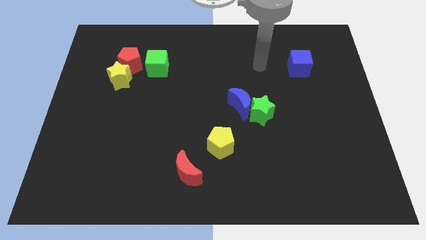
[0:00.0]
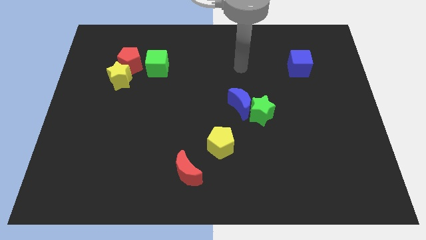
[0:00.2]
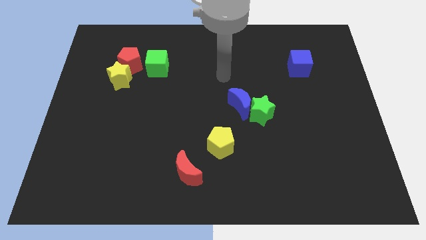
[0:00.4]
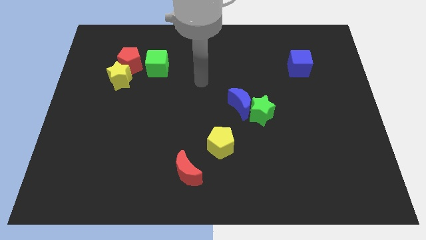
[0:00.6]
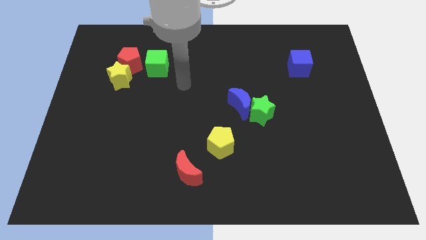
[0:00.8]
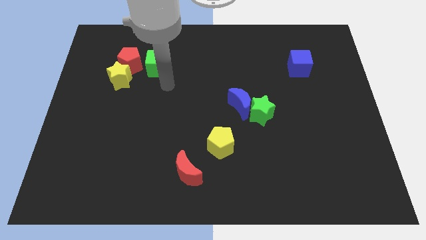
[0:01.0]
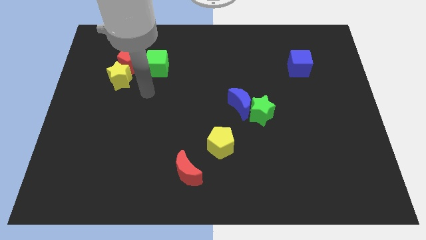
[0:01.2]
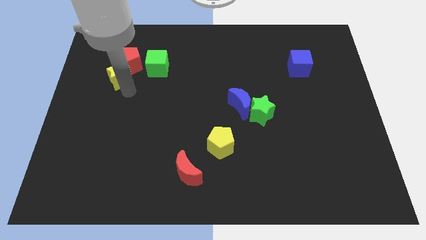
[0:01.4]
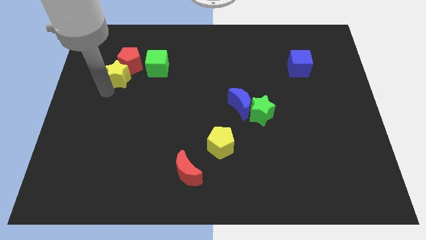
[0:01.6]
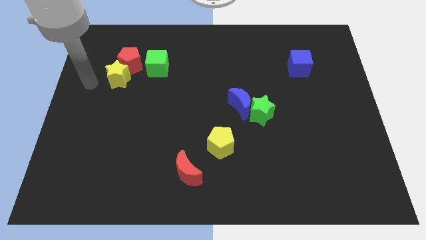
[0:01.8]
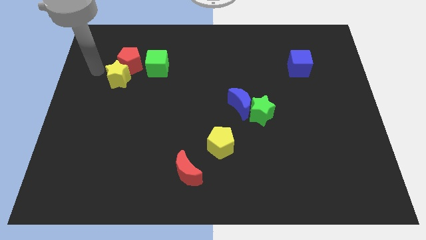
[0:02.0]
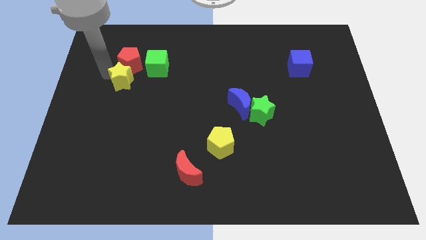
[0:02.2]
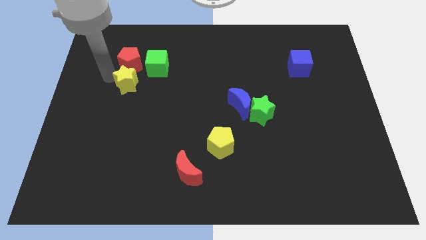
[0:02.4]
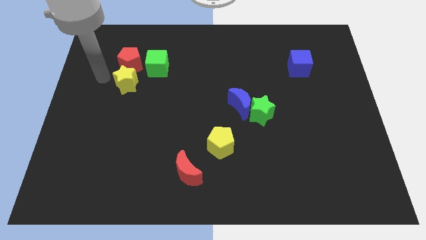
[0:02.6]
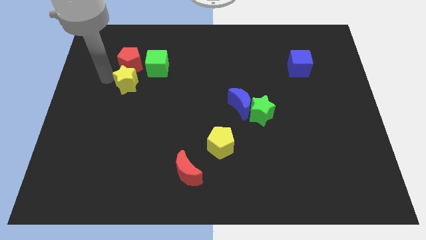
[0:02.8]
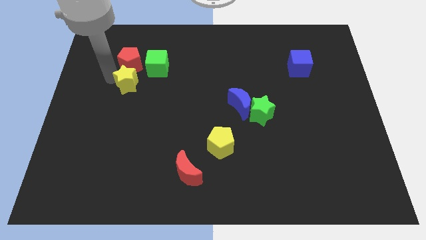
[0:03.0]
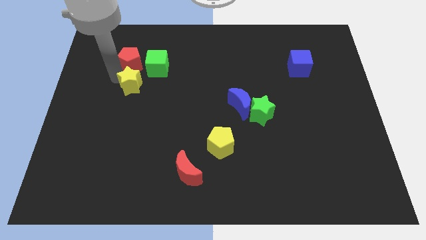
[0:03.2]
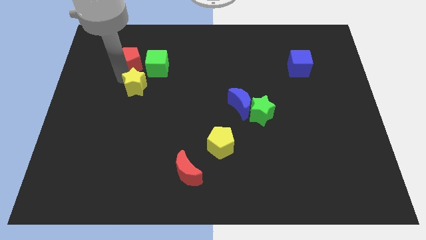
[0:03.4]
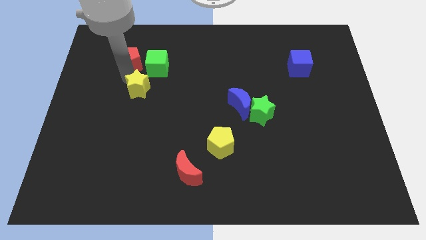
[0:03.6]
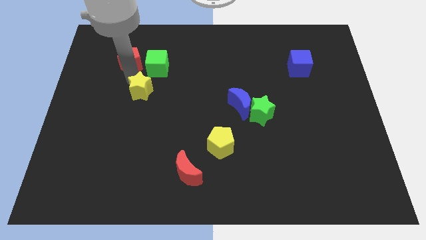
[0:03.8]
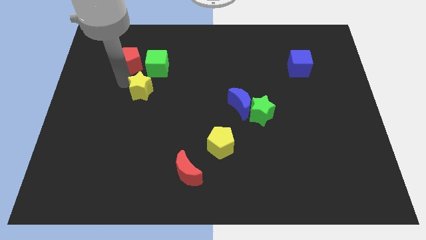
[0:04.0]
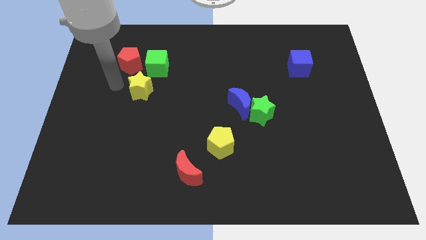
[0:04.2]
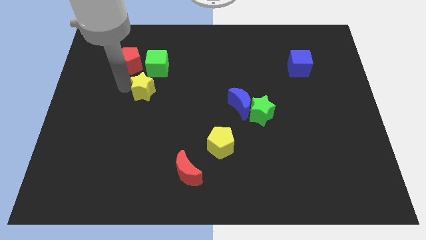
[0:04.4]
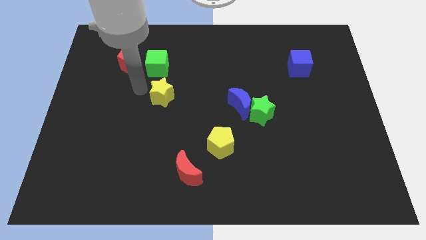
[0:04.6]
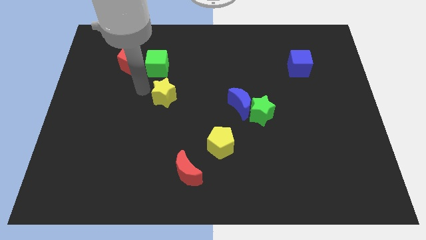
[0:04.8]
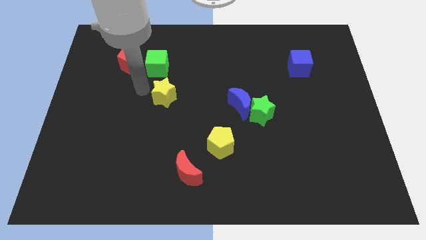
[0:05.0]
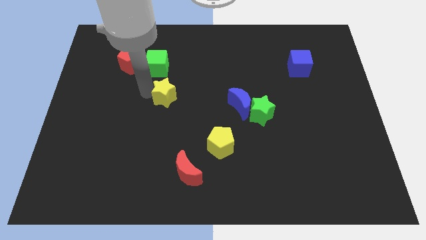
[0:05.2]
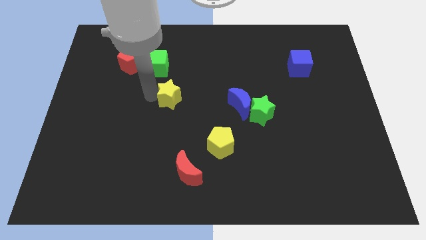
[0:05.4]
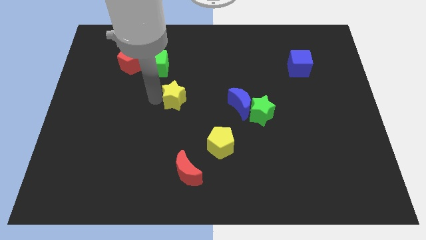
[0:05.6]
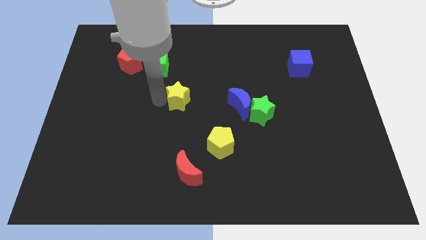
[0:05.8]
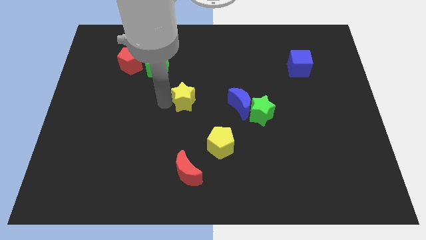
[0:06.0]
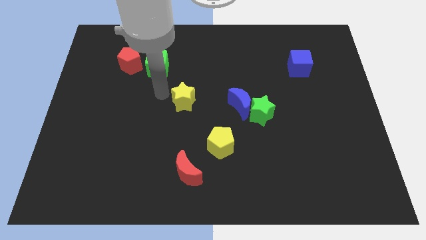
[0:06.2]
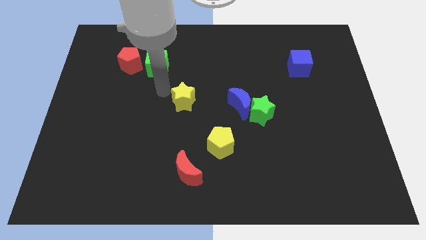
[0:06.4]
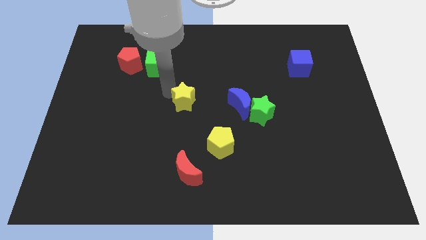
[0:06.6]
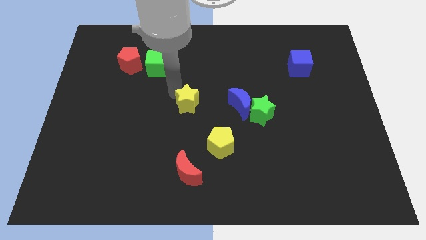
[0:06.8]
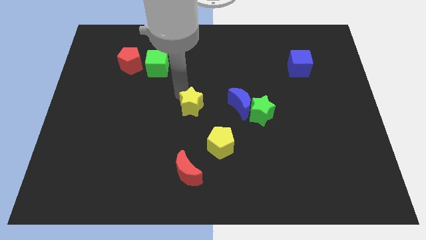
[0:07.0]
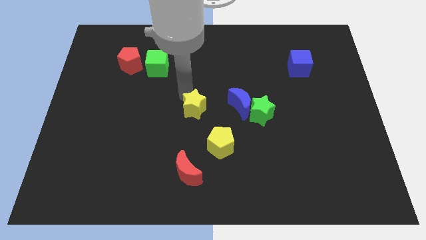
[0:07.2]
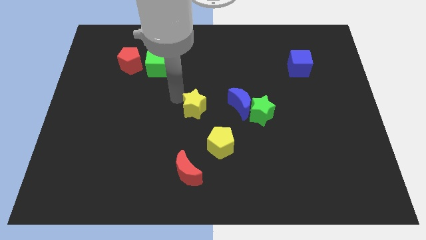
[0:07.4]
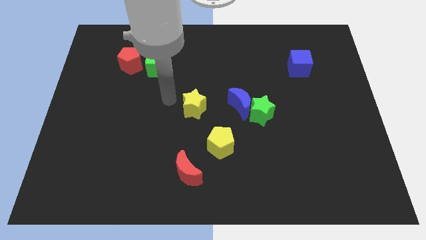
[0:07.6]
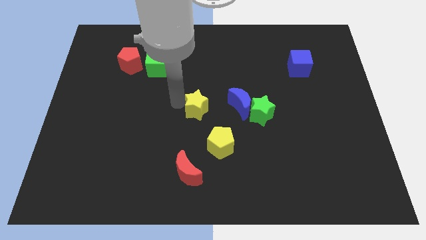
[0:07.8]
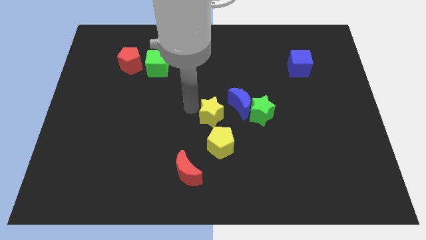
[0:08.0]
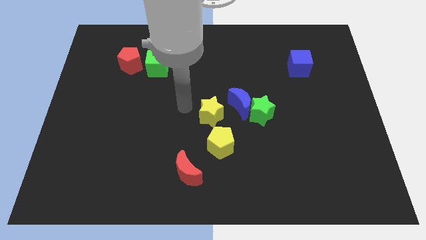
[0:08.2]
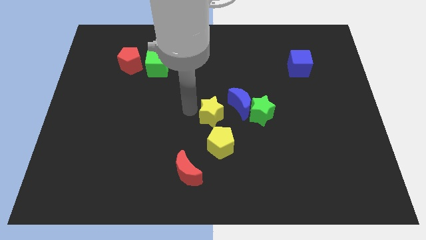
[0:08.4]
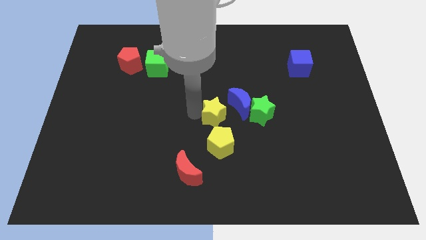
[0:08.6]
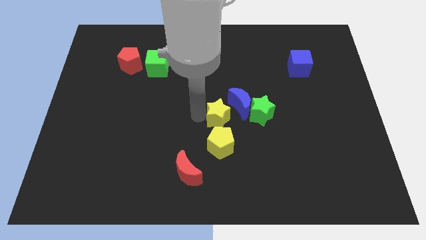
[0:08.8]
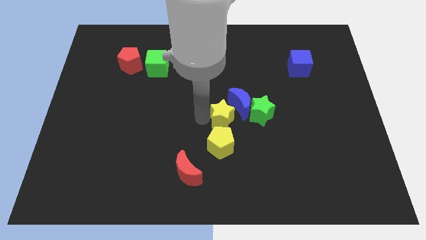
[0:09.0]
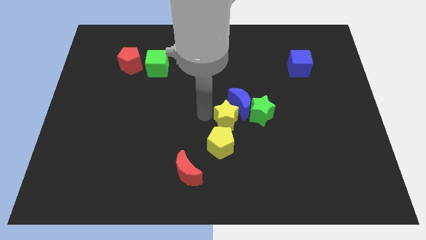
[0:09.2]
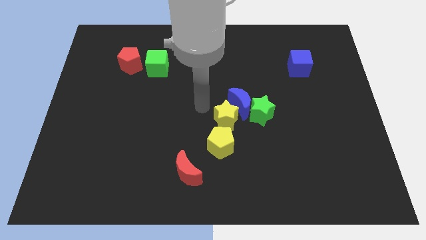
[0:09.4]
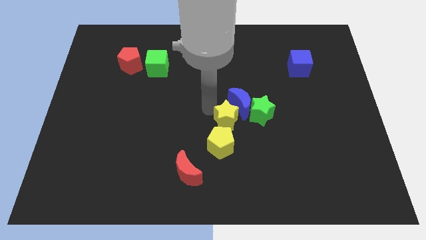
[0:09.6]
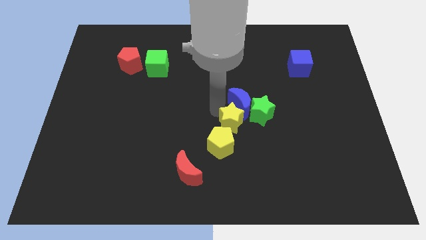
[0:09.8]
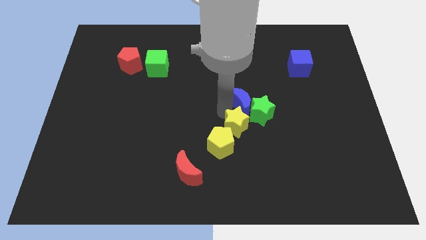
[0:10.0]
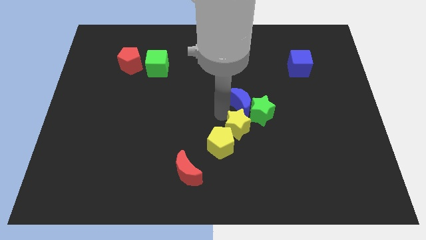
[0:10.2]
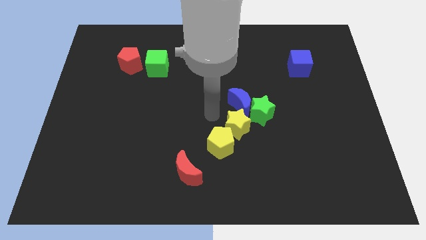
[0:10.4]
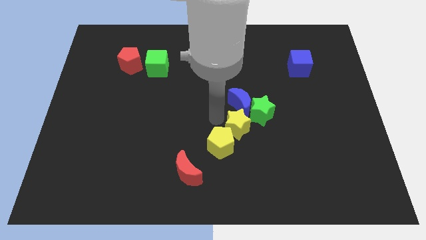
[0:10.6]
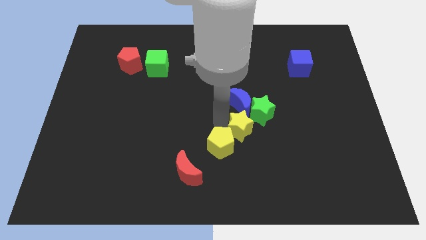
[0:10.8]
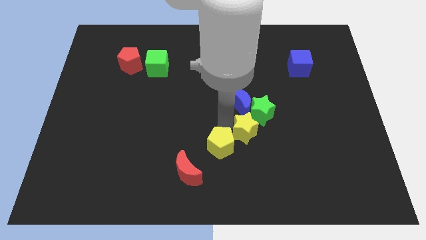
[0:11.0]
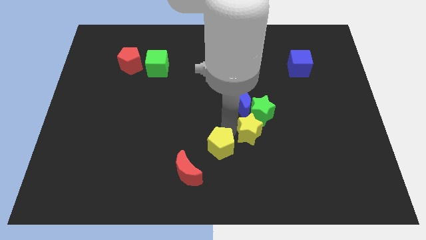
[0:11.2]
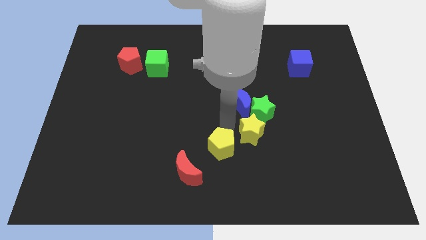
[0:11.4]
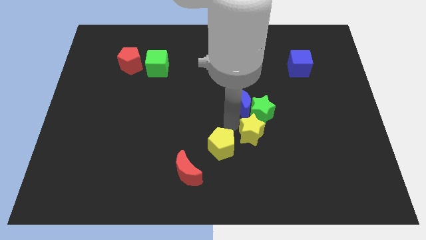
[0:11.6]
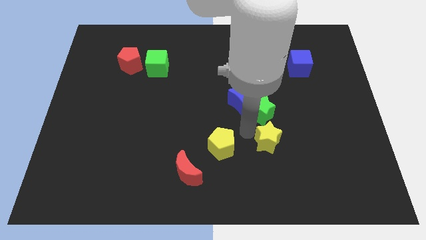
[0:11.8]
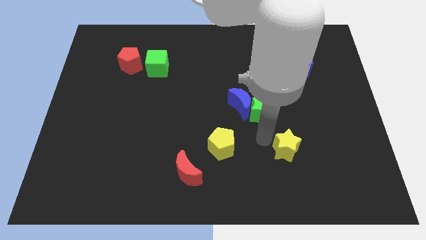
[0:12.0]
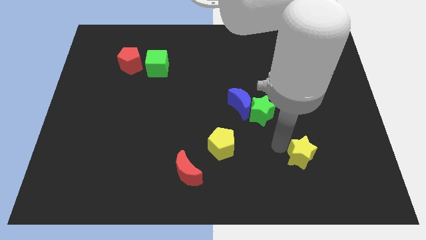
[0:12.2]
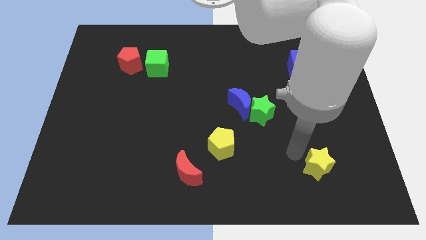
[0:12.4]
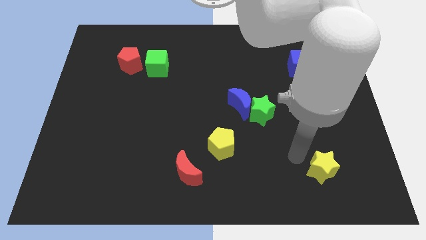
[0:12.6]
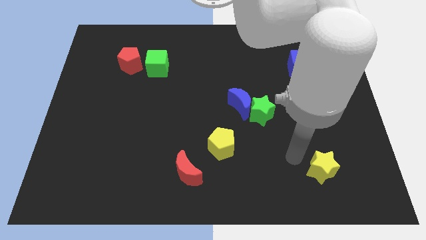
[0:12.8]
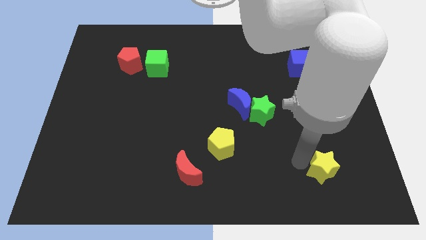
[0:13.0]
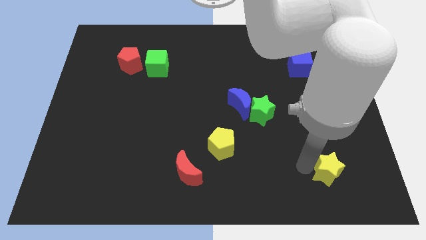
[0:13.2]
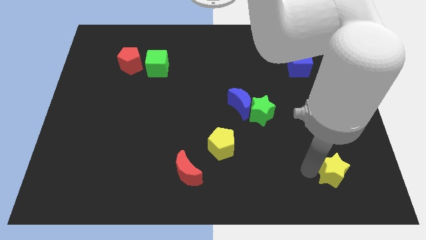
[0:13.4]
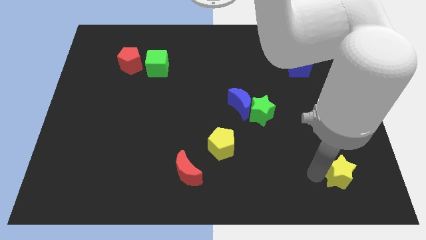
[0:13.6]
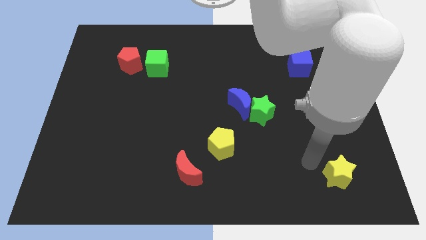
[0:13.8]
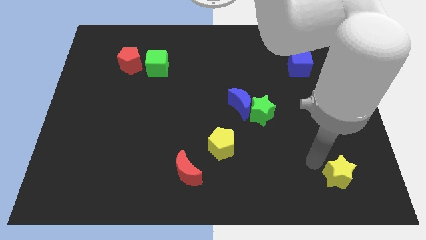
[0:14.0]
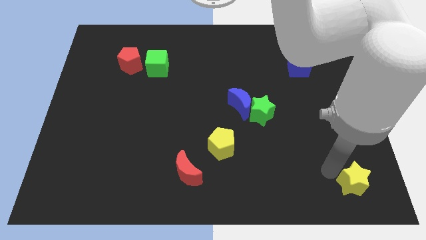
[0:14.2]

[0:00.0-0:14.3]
put the yellow star to the bottom right

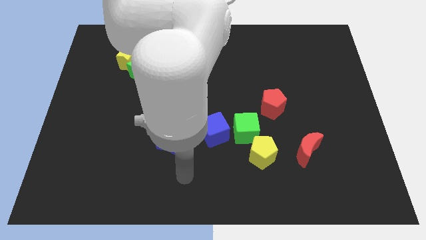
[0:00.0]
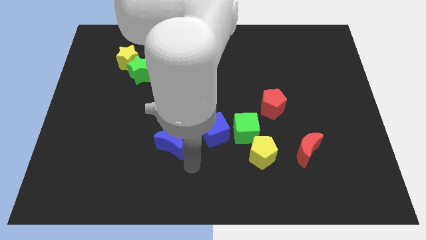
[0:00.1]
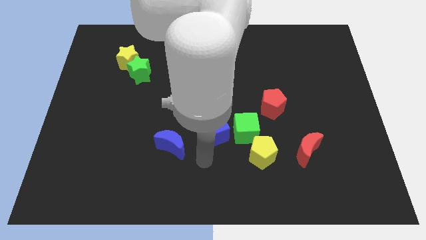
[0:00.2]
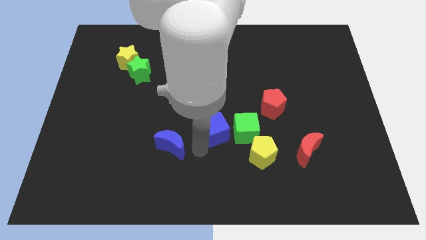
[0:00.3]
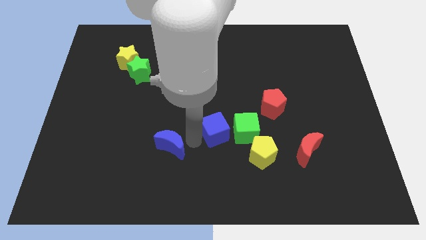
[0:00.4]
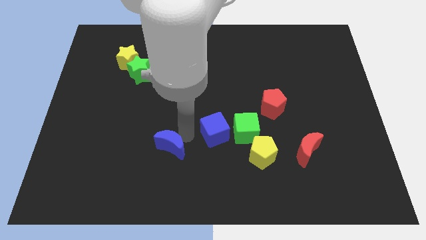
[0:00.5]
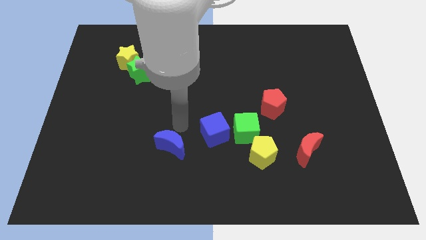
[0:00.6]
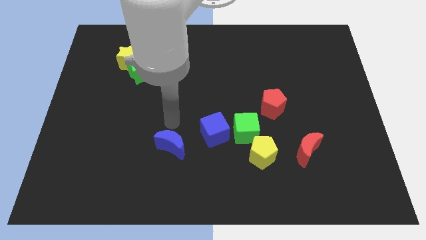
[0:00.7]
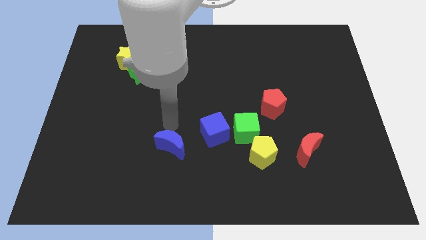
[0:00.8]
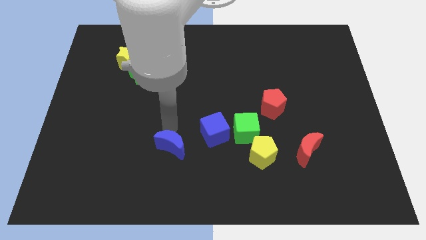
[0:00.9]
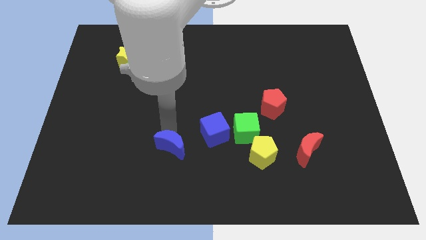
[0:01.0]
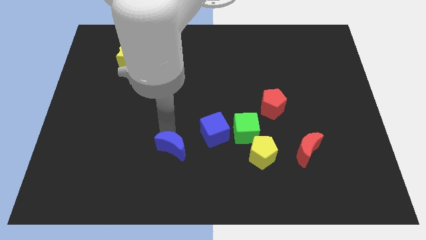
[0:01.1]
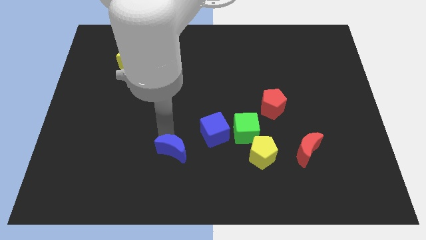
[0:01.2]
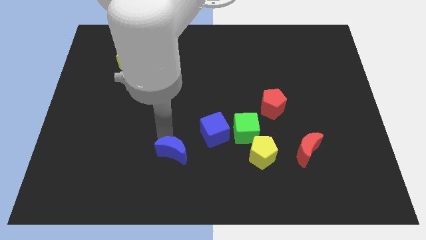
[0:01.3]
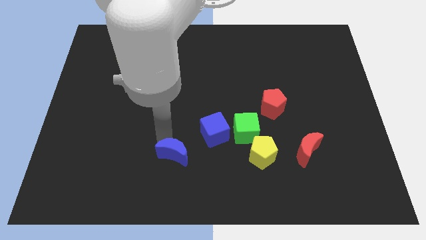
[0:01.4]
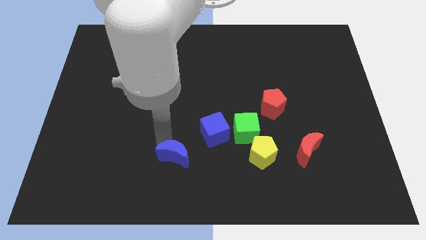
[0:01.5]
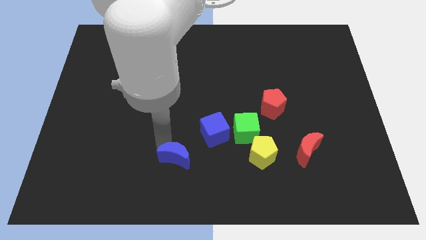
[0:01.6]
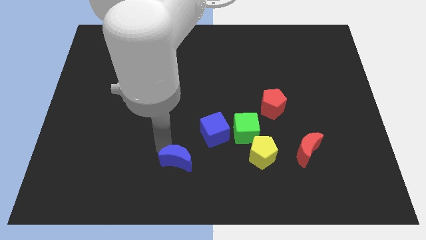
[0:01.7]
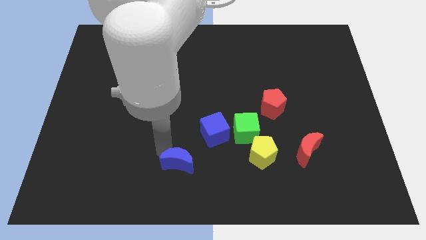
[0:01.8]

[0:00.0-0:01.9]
push the blue moon to the bottom
